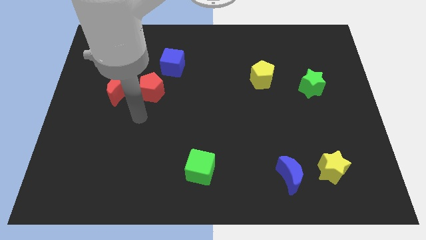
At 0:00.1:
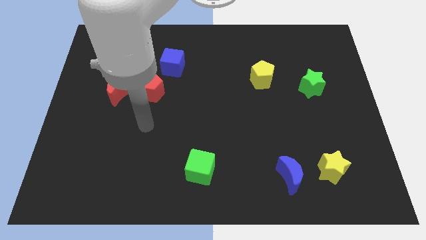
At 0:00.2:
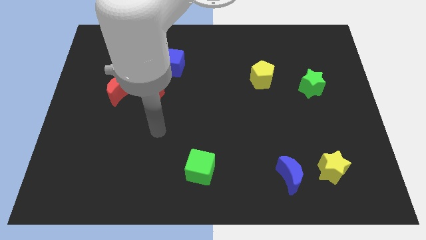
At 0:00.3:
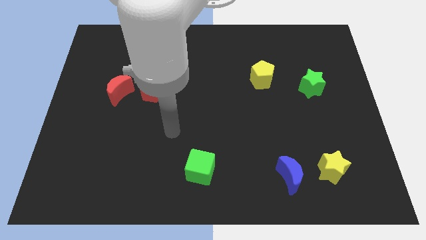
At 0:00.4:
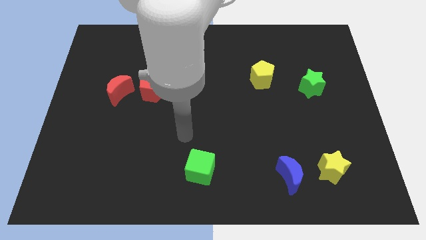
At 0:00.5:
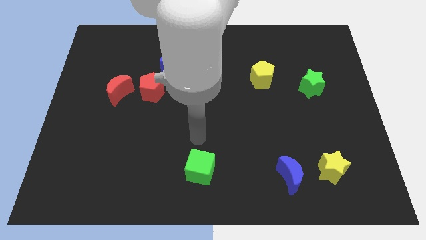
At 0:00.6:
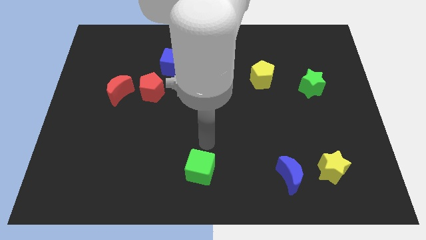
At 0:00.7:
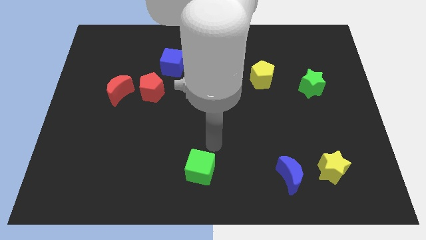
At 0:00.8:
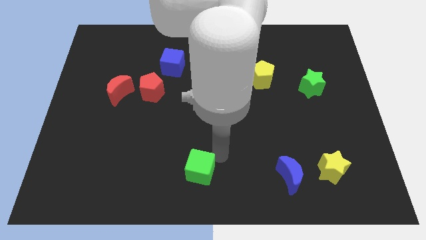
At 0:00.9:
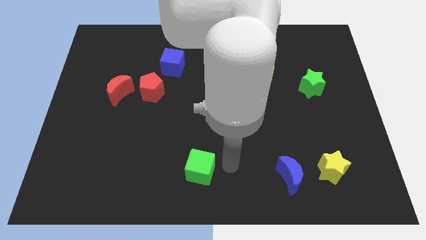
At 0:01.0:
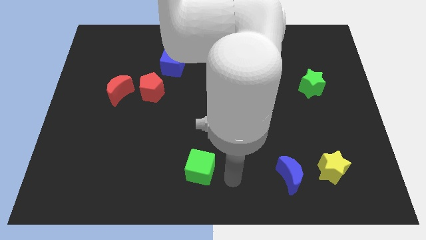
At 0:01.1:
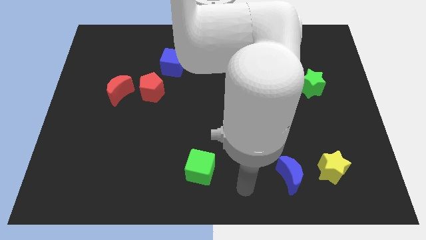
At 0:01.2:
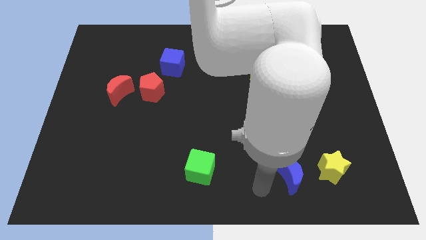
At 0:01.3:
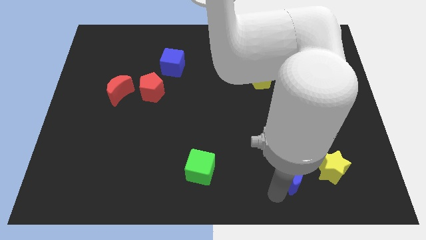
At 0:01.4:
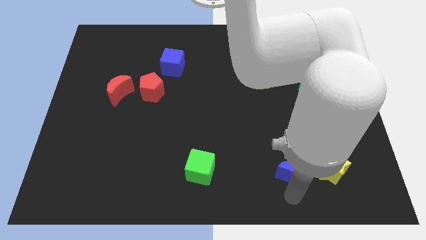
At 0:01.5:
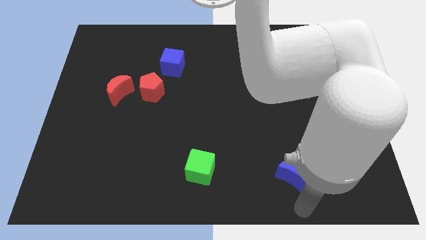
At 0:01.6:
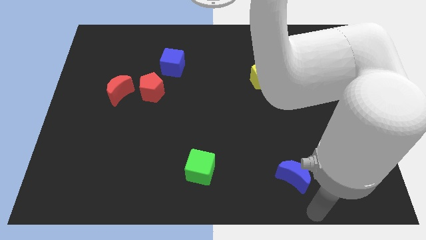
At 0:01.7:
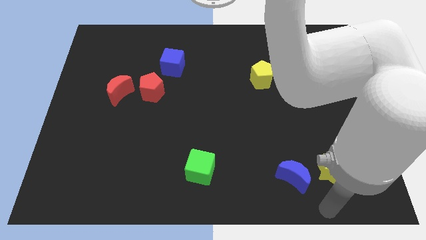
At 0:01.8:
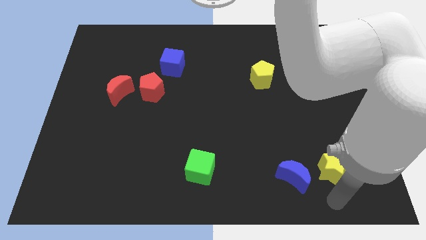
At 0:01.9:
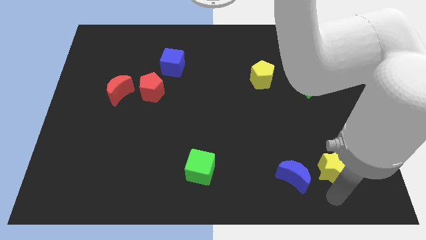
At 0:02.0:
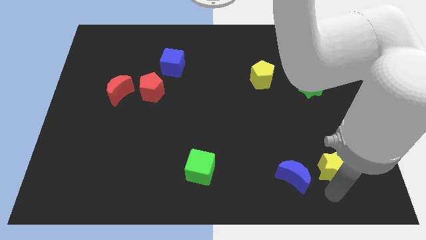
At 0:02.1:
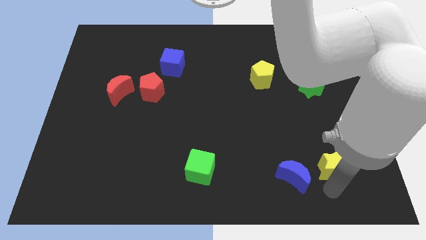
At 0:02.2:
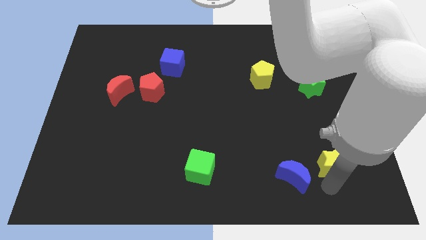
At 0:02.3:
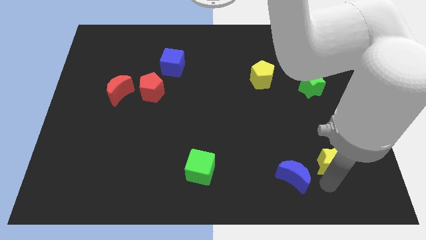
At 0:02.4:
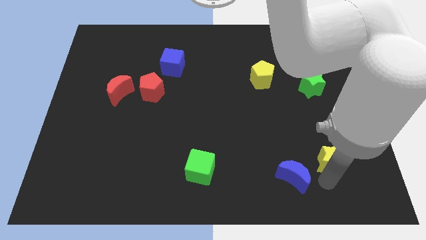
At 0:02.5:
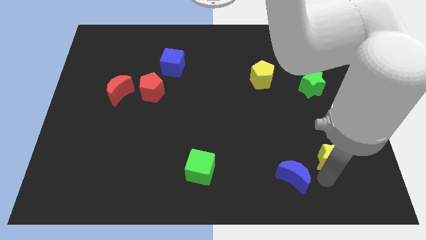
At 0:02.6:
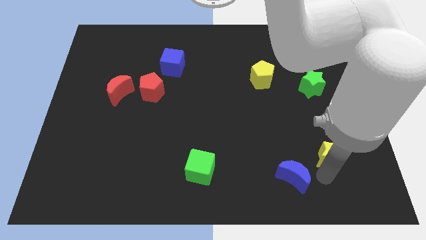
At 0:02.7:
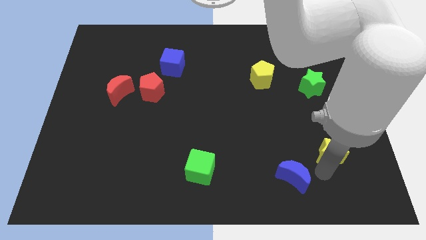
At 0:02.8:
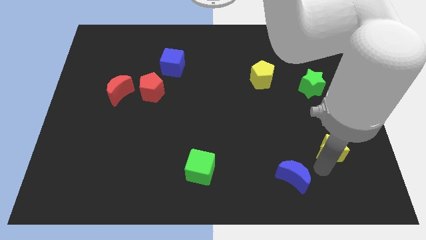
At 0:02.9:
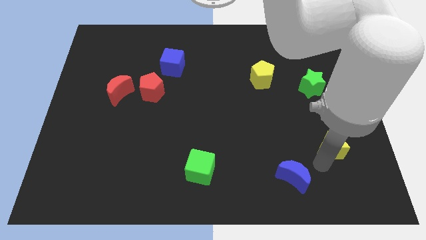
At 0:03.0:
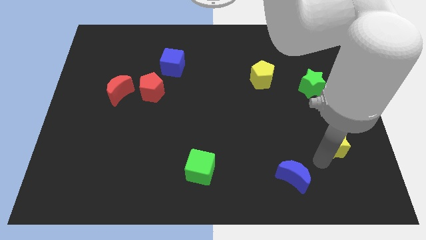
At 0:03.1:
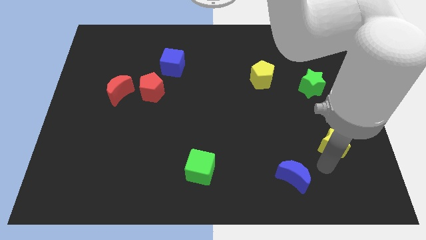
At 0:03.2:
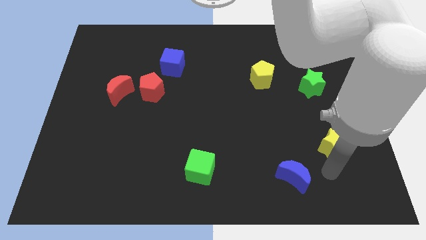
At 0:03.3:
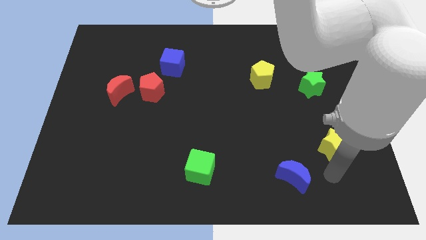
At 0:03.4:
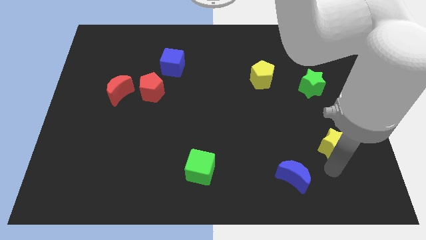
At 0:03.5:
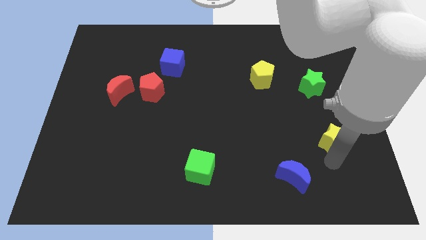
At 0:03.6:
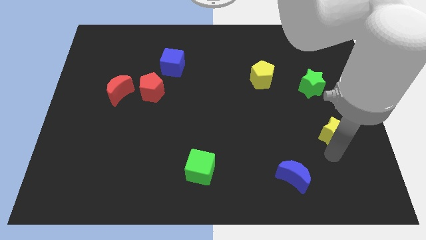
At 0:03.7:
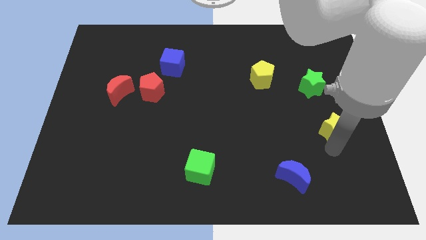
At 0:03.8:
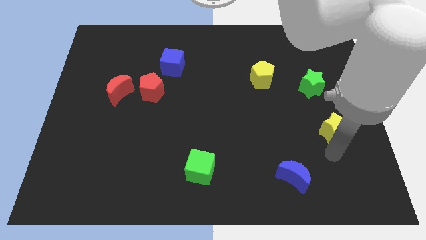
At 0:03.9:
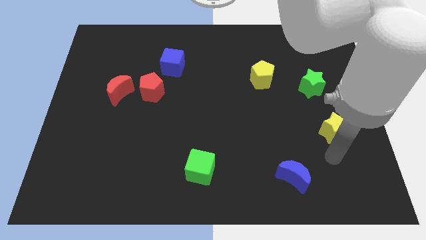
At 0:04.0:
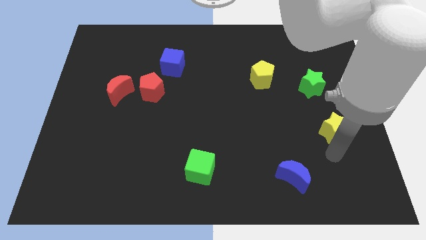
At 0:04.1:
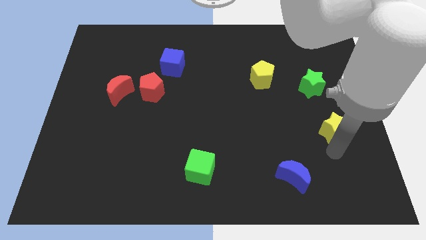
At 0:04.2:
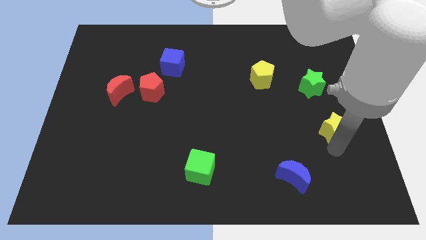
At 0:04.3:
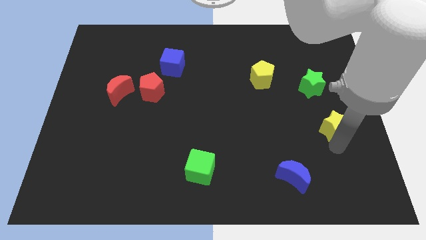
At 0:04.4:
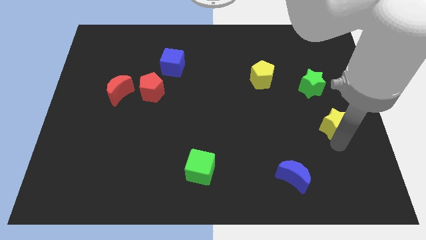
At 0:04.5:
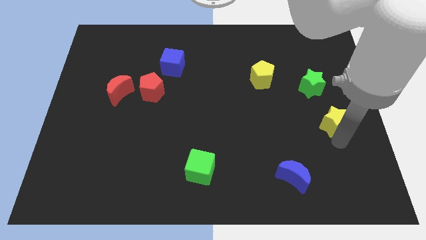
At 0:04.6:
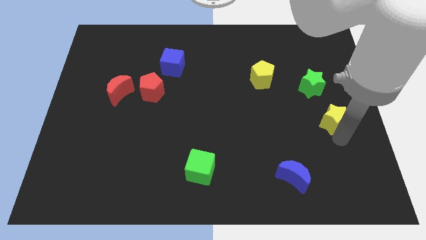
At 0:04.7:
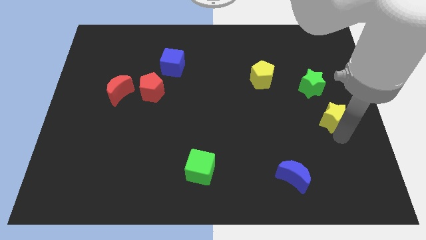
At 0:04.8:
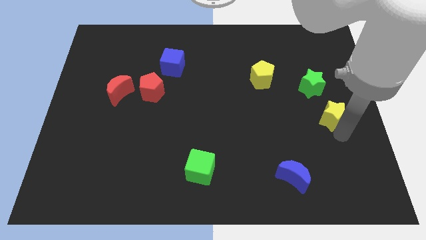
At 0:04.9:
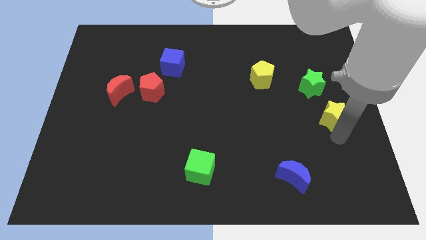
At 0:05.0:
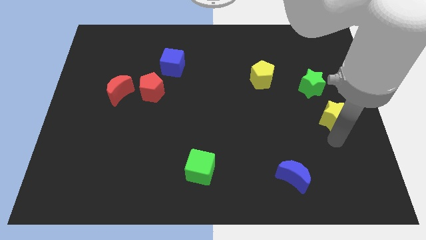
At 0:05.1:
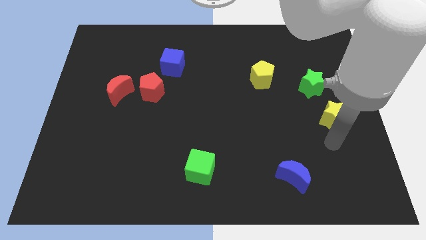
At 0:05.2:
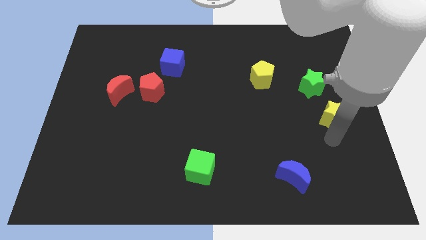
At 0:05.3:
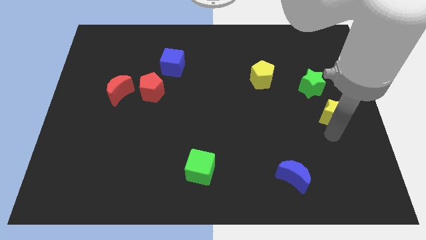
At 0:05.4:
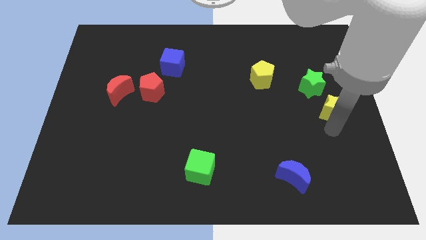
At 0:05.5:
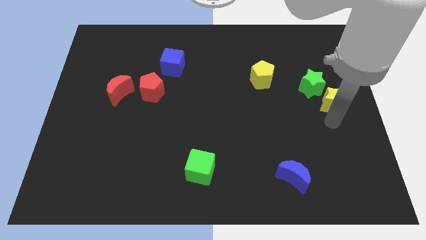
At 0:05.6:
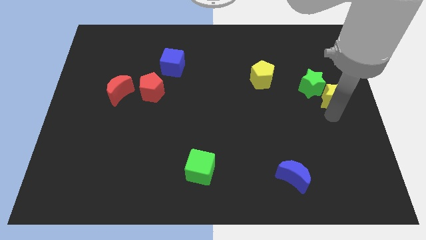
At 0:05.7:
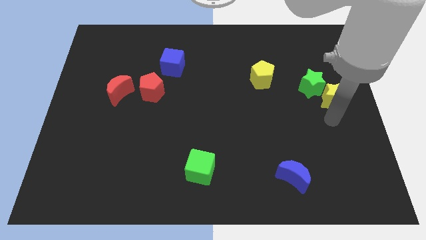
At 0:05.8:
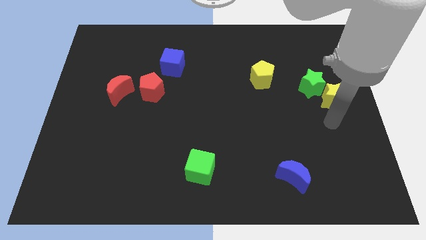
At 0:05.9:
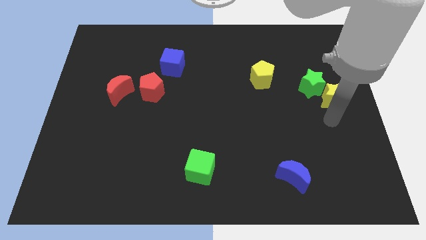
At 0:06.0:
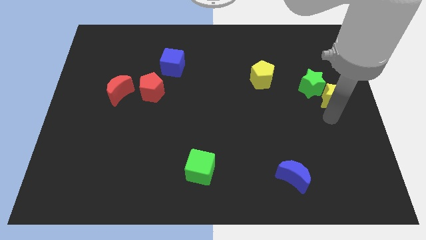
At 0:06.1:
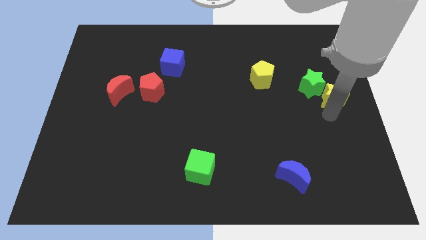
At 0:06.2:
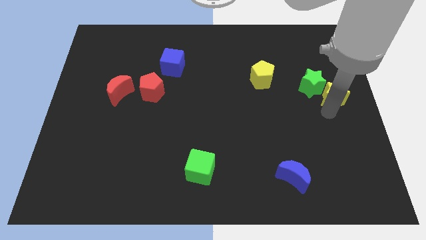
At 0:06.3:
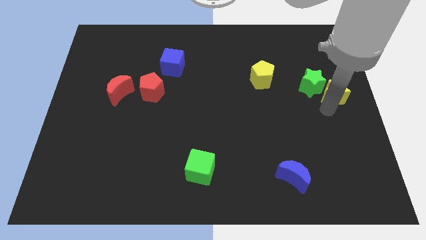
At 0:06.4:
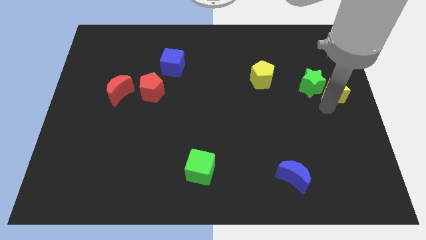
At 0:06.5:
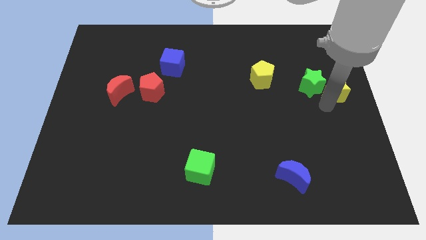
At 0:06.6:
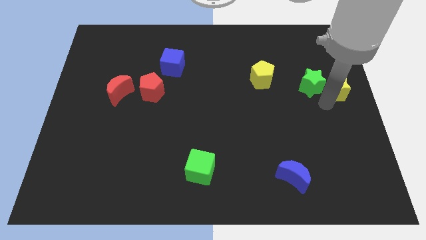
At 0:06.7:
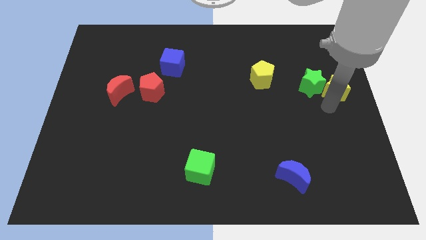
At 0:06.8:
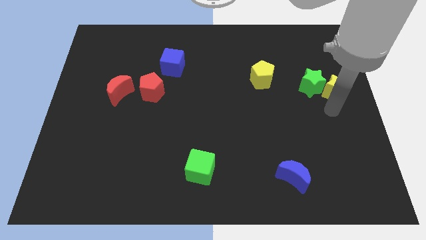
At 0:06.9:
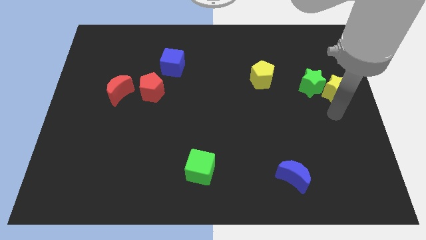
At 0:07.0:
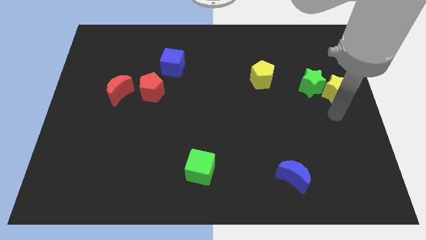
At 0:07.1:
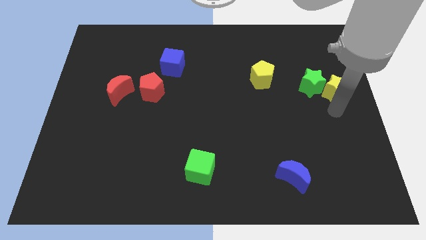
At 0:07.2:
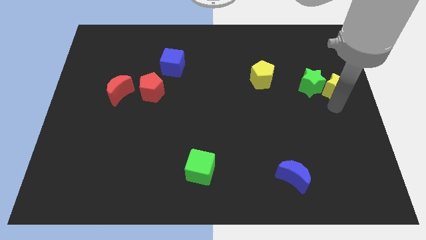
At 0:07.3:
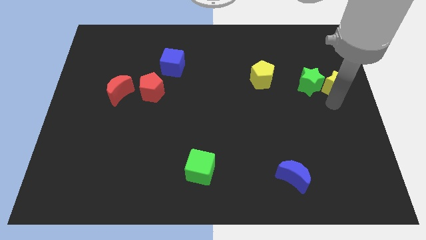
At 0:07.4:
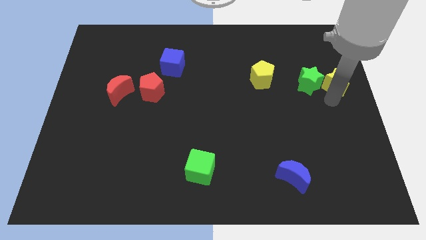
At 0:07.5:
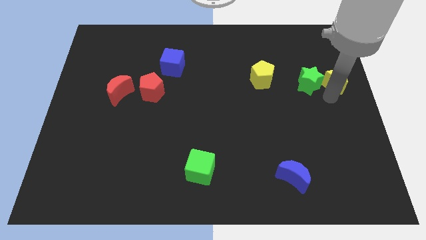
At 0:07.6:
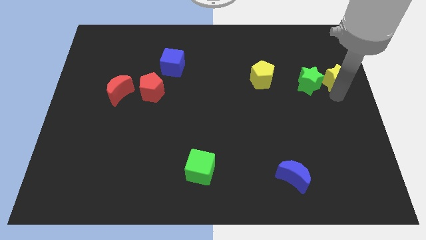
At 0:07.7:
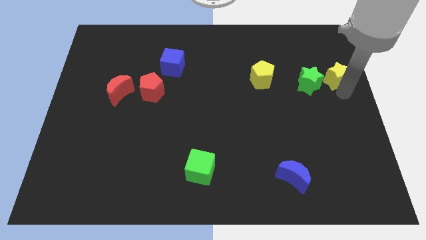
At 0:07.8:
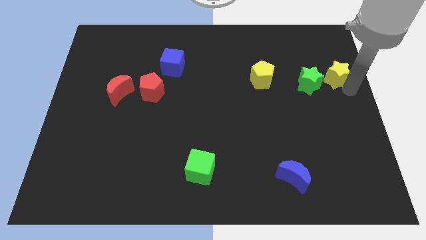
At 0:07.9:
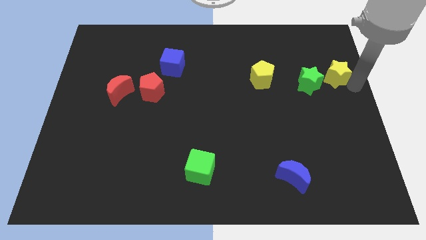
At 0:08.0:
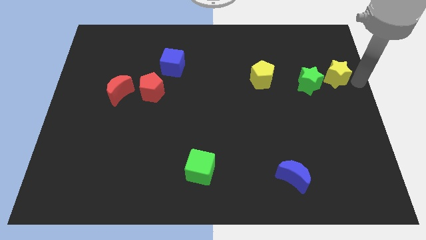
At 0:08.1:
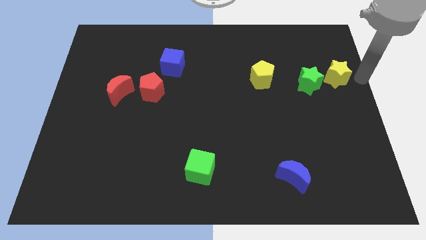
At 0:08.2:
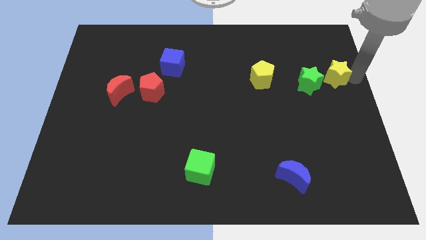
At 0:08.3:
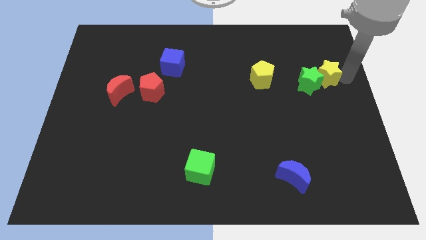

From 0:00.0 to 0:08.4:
move the yellow star to the right of the yellow pentagon
